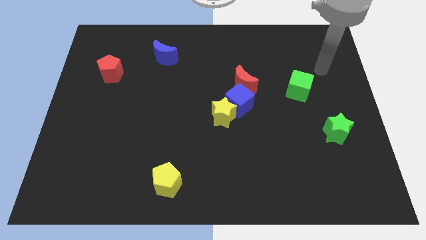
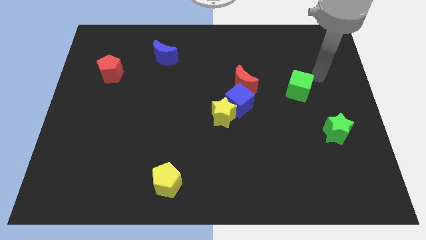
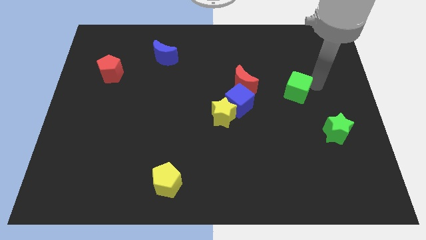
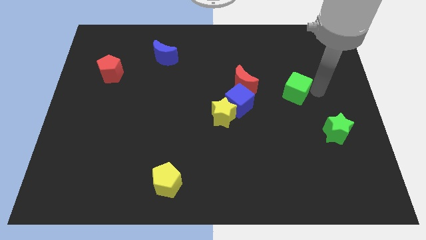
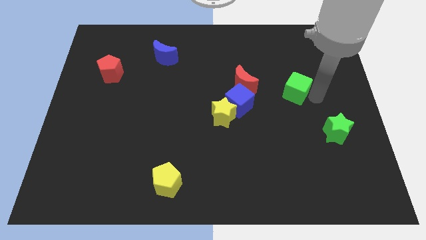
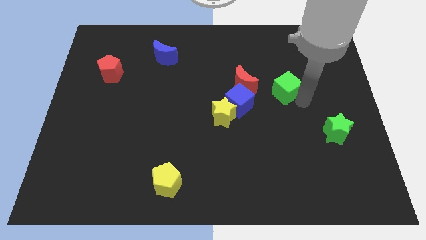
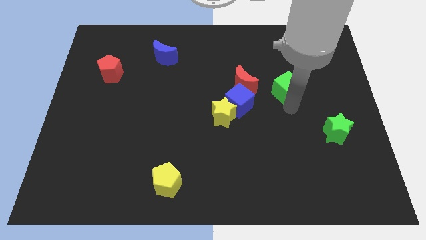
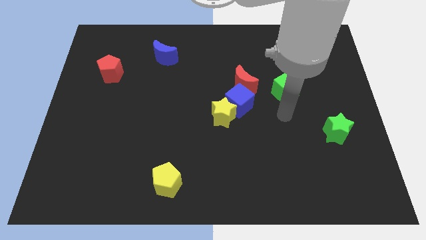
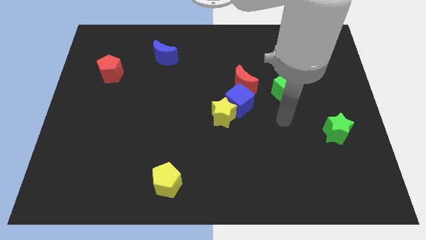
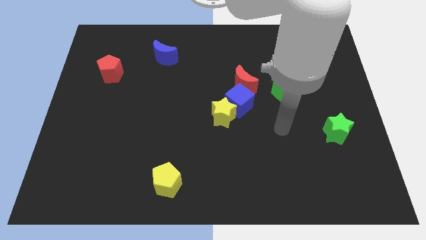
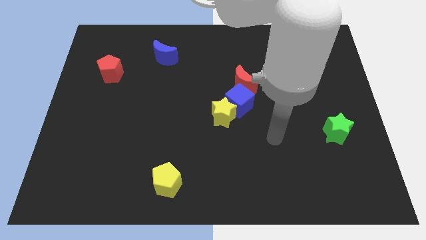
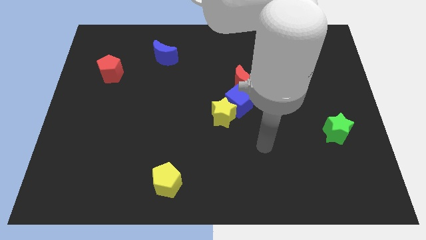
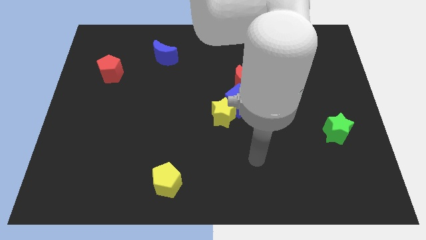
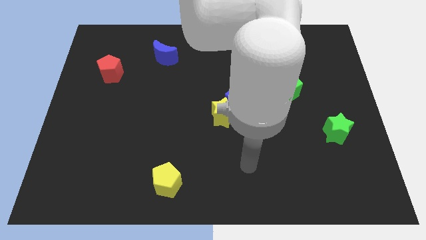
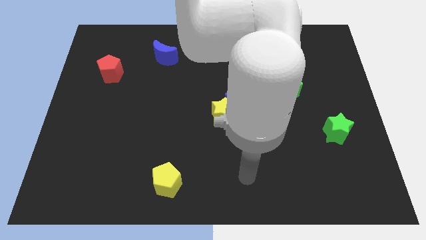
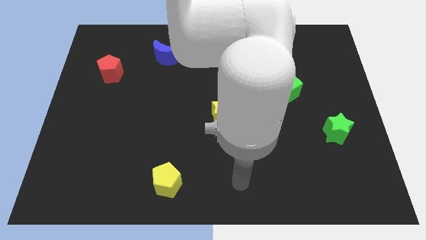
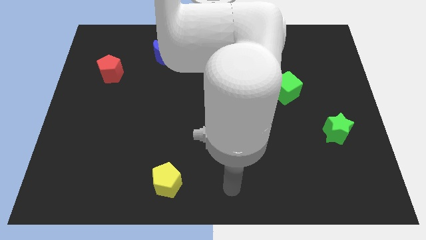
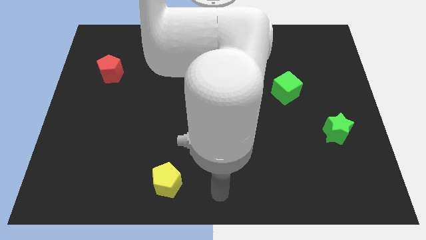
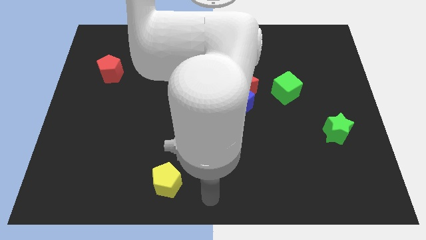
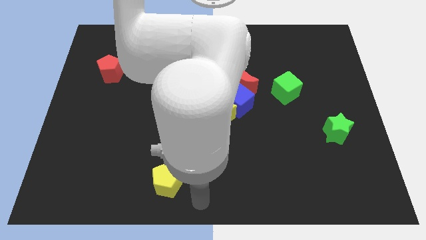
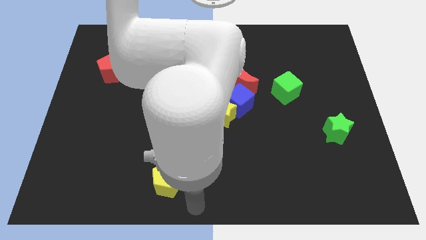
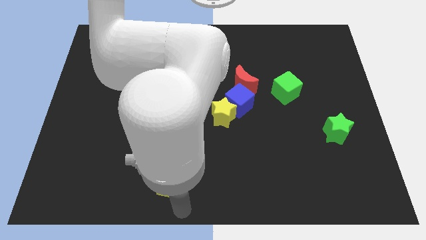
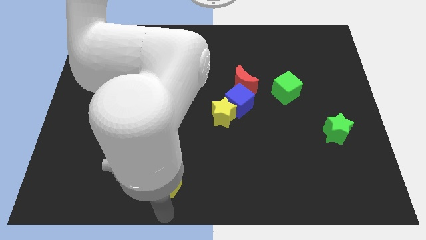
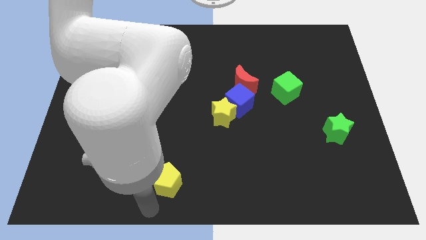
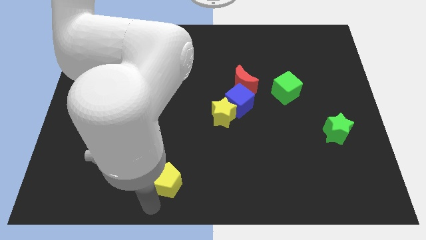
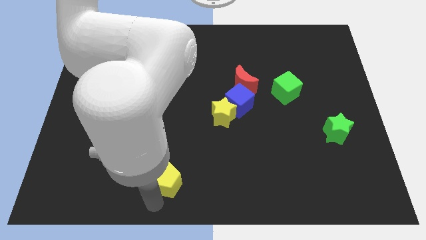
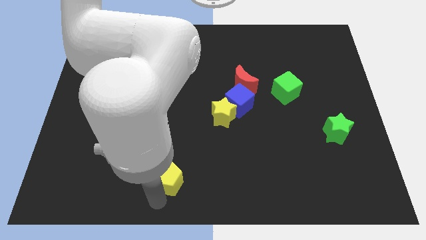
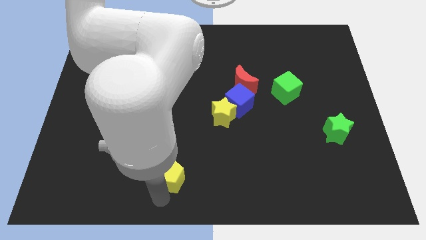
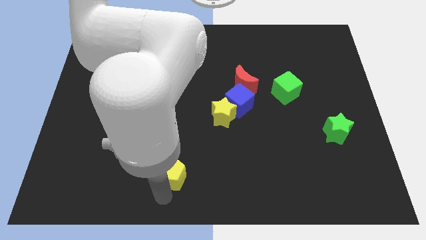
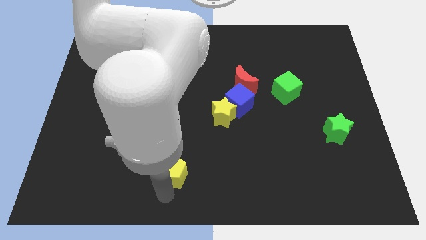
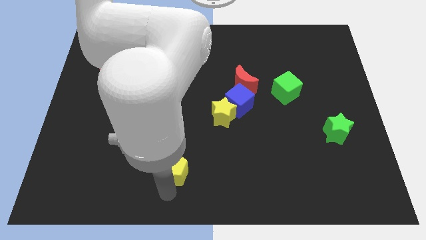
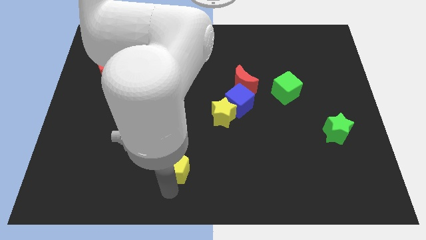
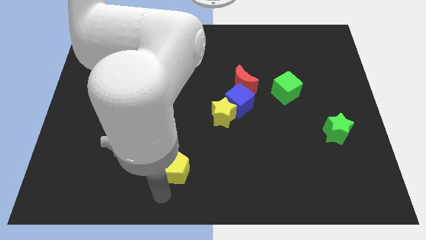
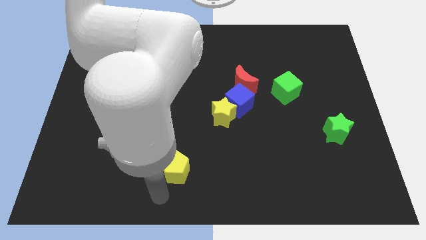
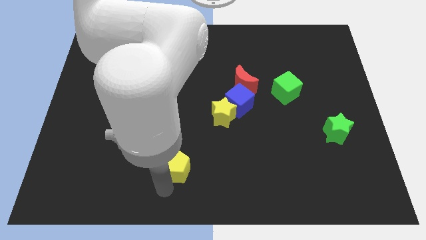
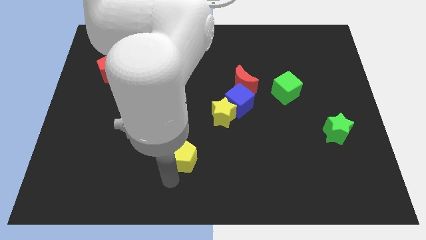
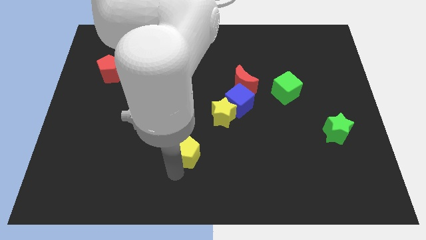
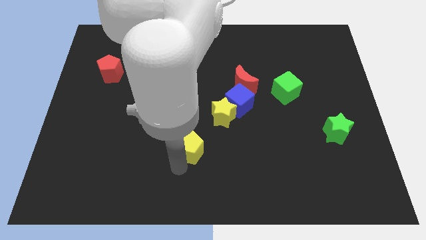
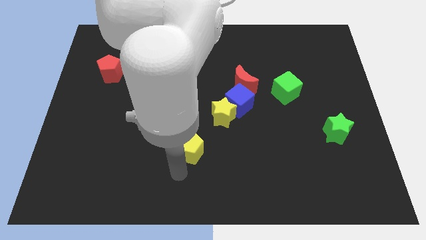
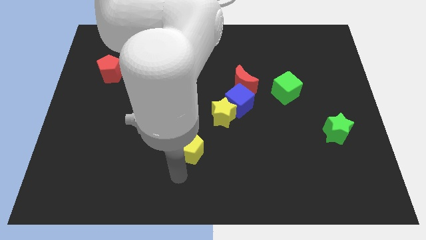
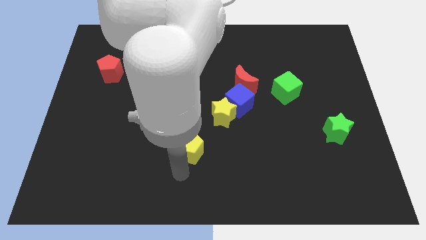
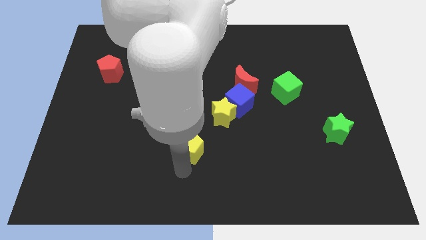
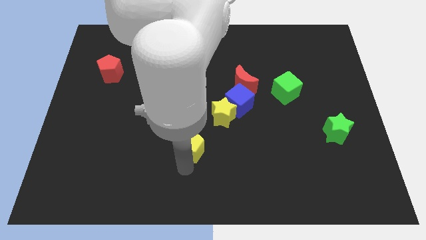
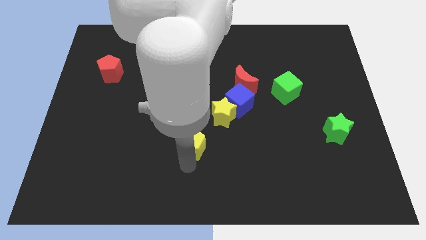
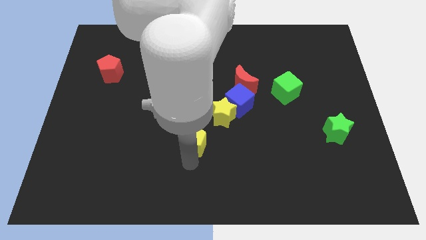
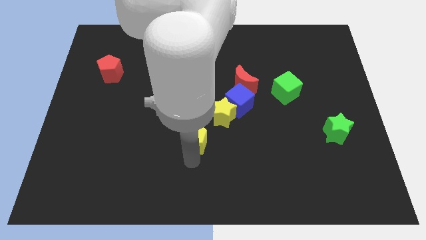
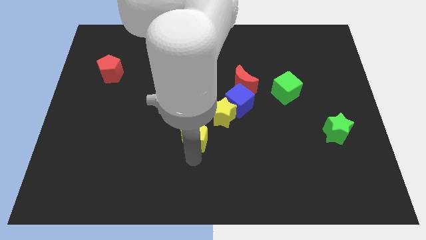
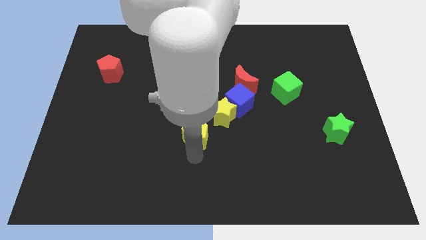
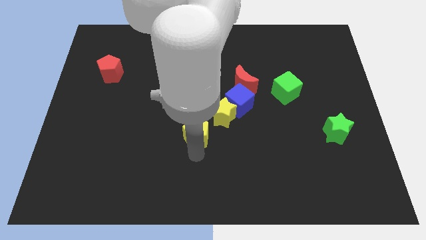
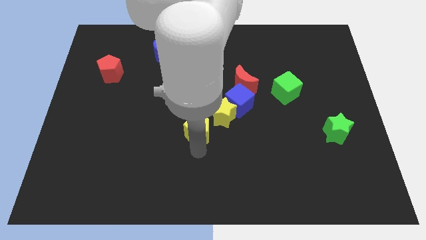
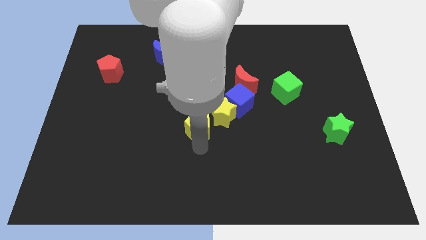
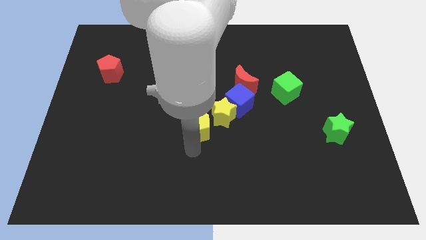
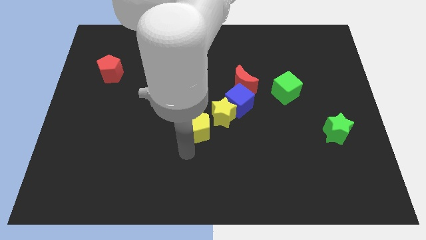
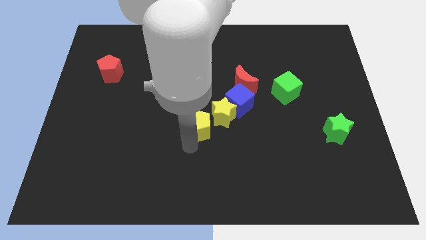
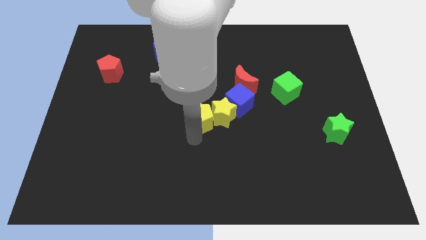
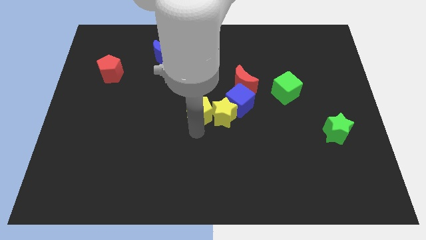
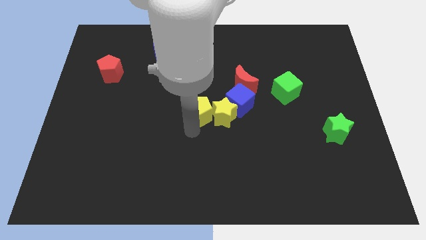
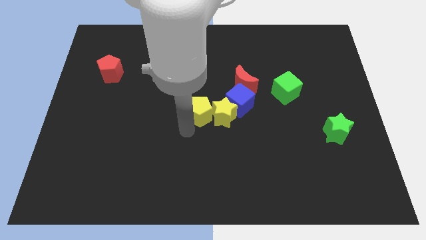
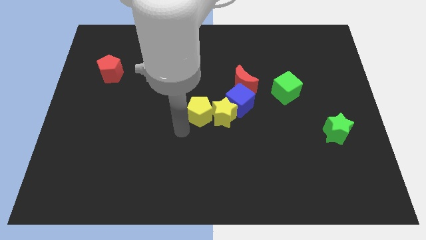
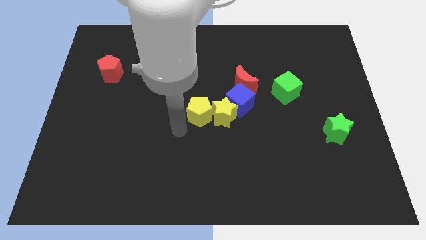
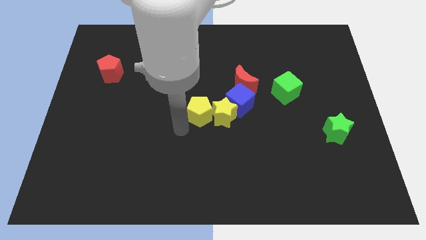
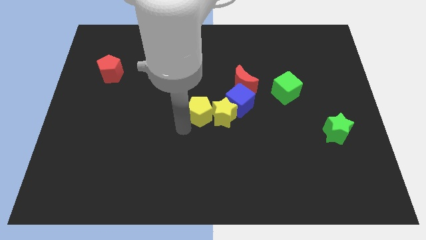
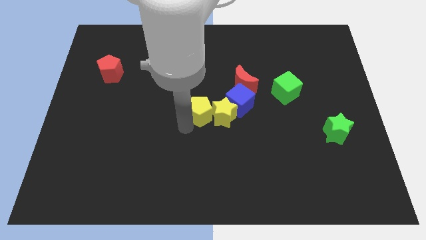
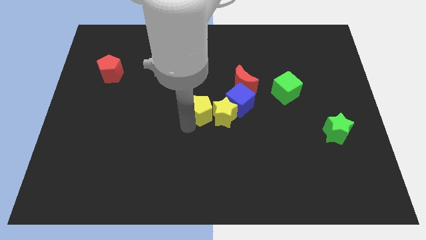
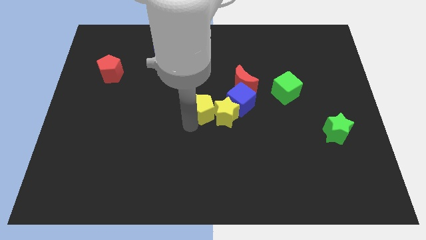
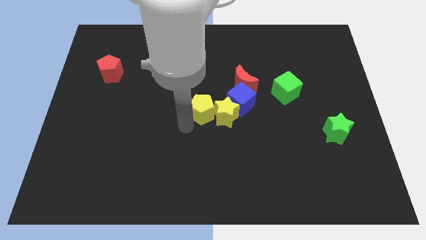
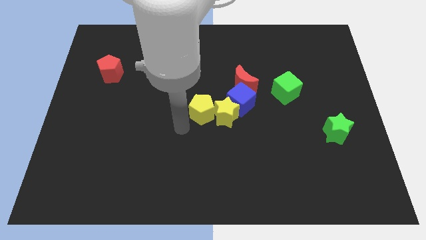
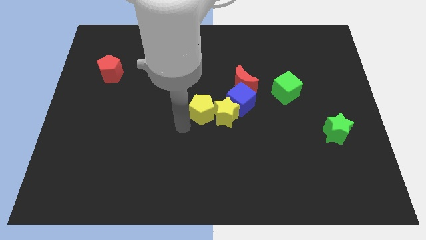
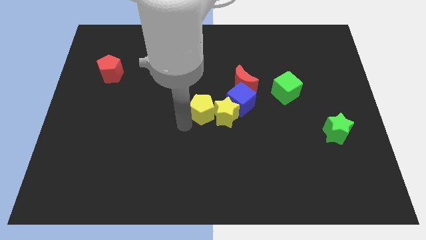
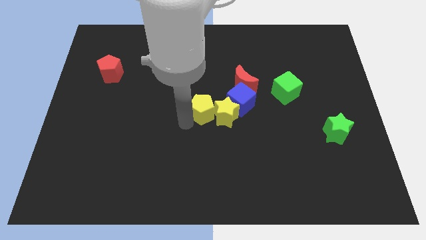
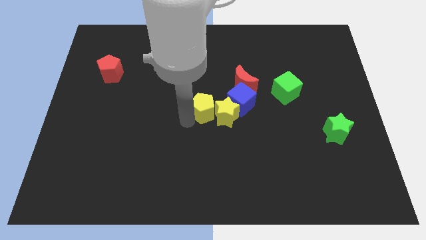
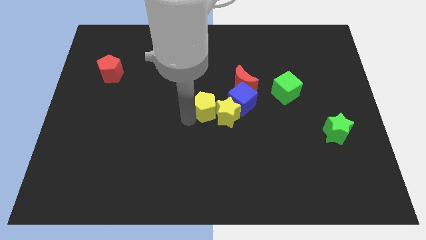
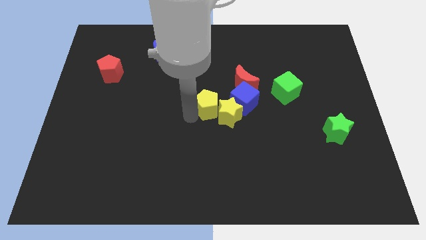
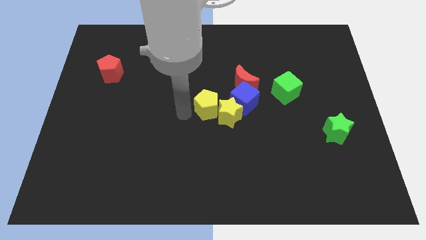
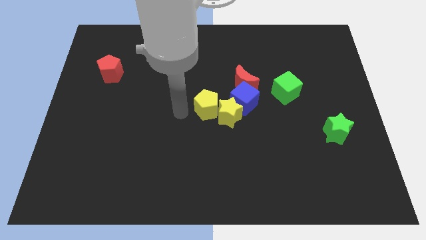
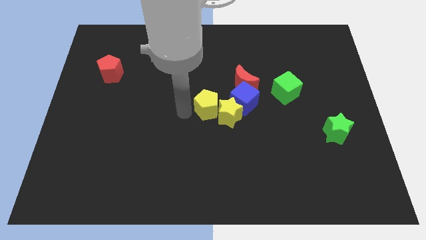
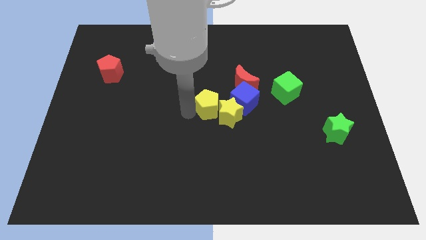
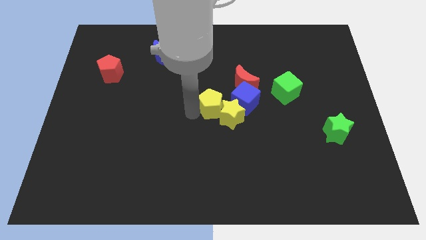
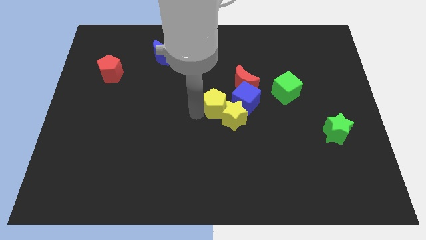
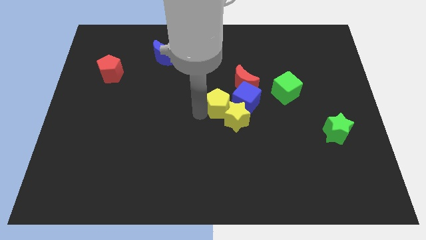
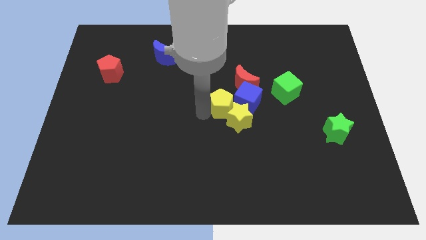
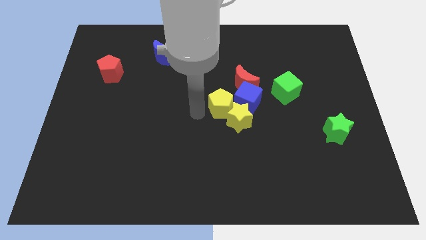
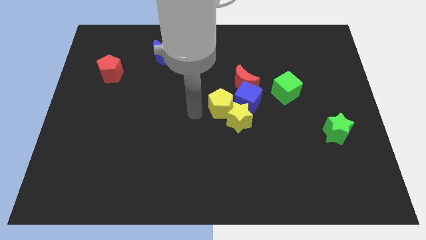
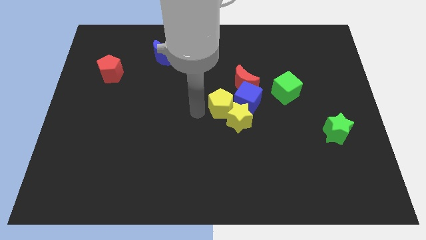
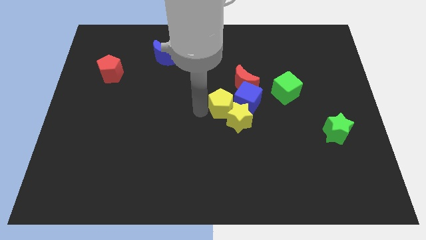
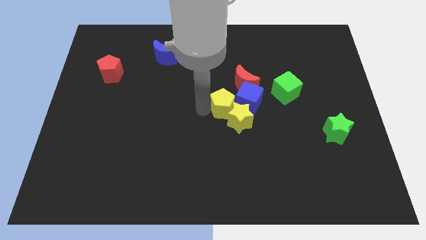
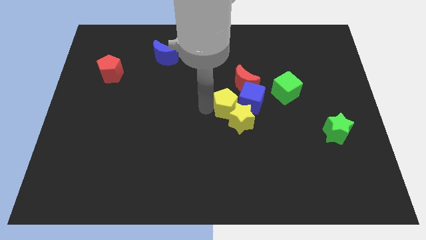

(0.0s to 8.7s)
move the yellow pentagon next to the blue cube
